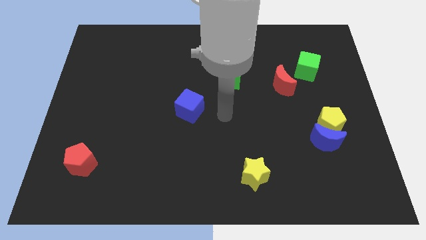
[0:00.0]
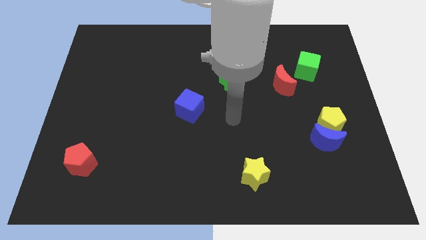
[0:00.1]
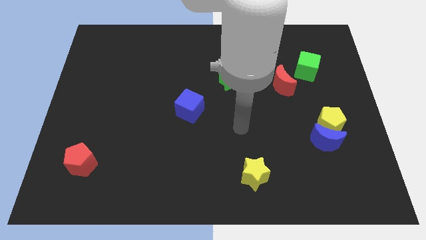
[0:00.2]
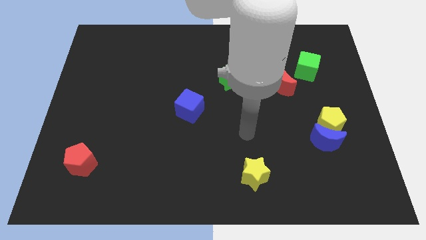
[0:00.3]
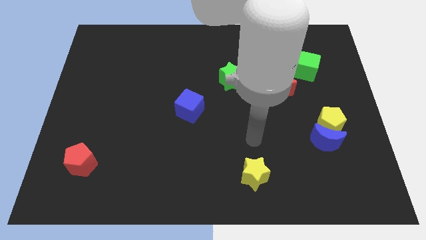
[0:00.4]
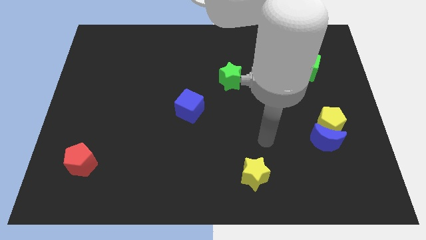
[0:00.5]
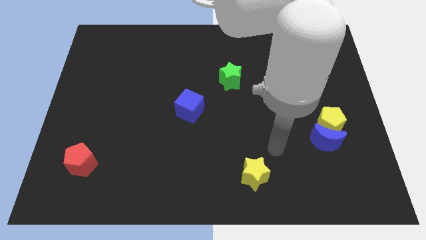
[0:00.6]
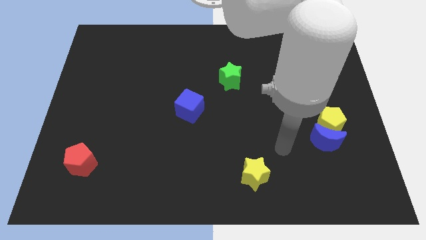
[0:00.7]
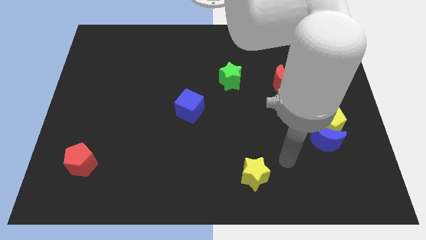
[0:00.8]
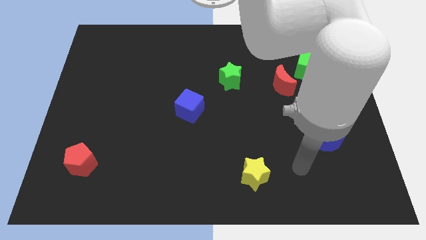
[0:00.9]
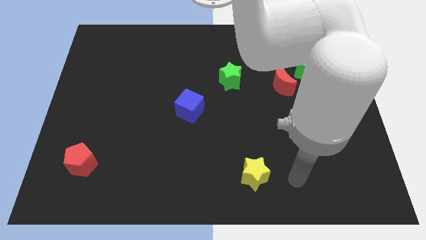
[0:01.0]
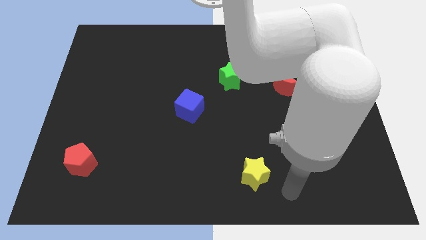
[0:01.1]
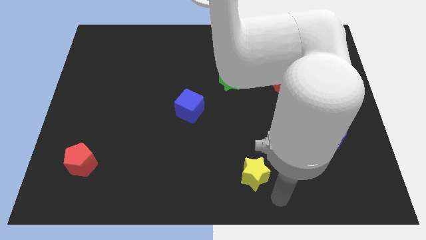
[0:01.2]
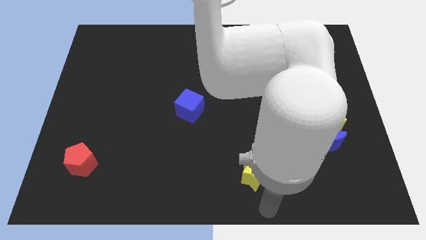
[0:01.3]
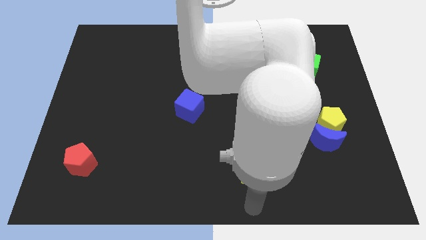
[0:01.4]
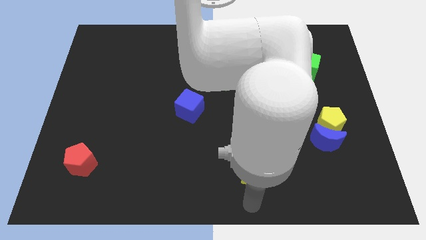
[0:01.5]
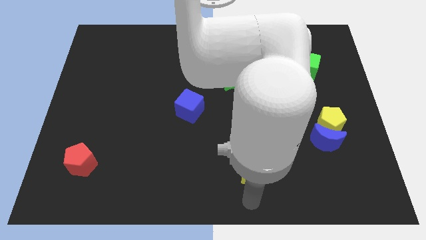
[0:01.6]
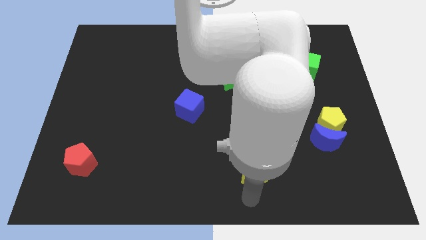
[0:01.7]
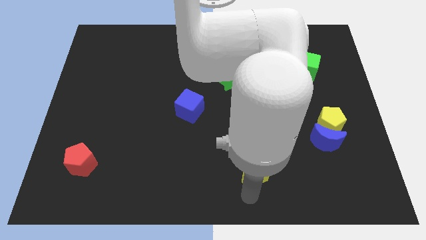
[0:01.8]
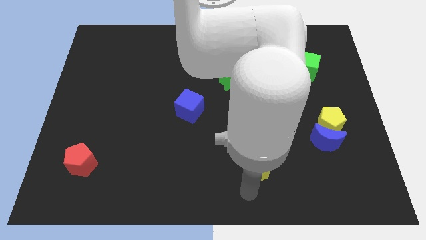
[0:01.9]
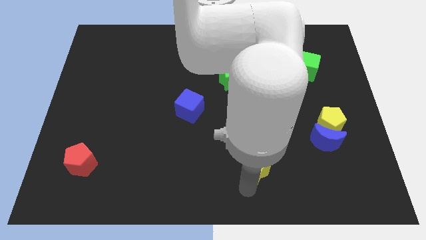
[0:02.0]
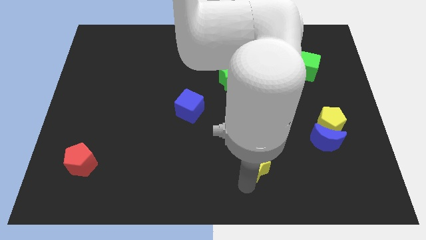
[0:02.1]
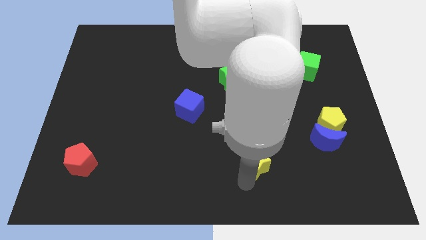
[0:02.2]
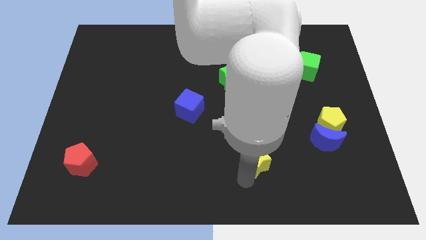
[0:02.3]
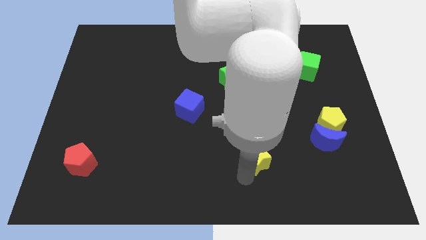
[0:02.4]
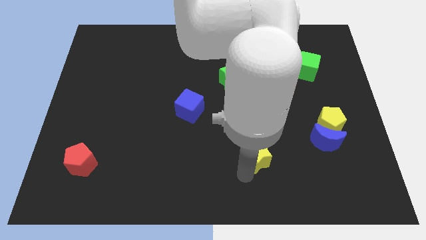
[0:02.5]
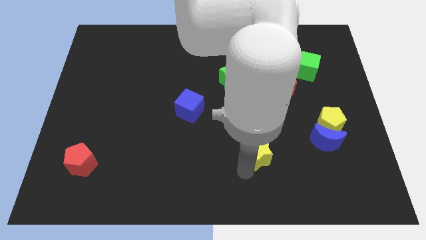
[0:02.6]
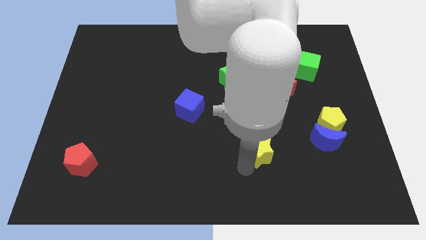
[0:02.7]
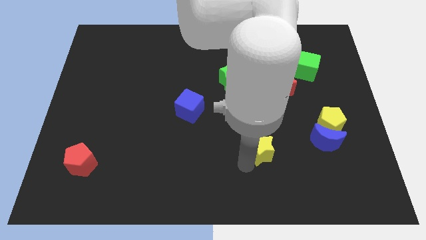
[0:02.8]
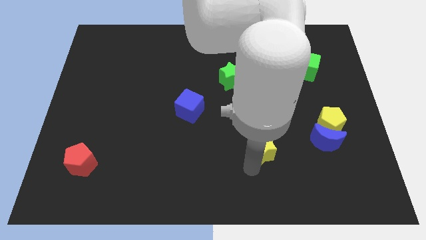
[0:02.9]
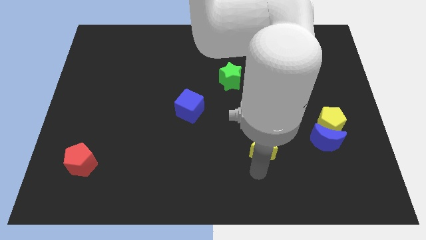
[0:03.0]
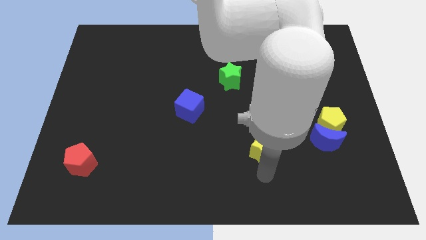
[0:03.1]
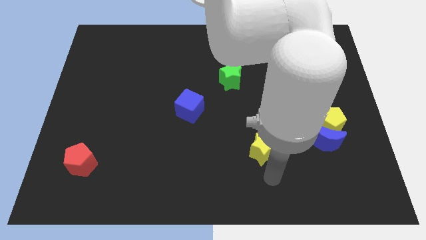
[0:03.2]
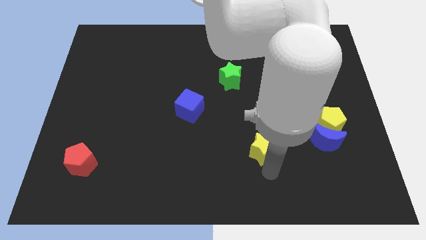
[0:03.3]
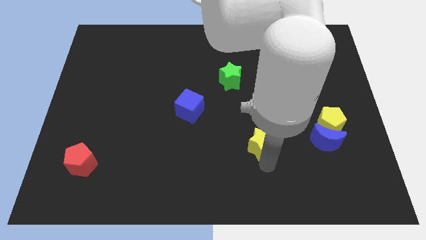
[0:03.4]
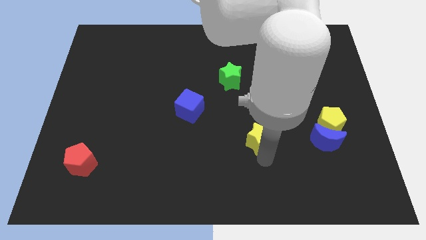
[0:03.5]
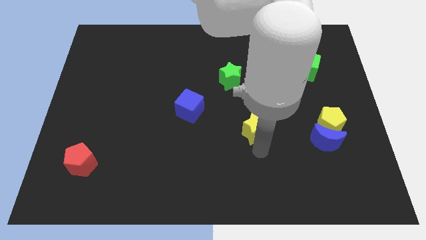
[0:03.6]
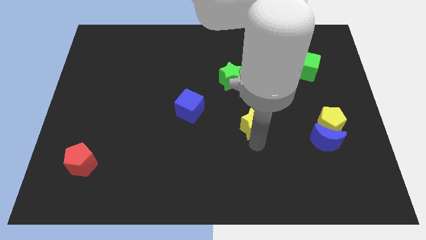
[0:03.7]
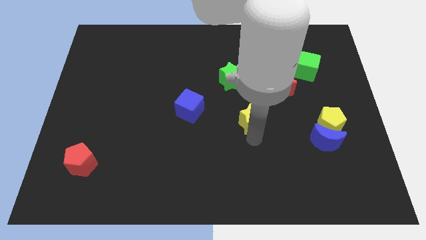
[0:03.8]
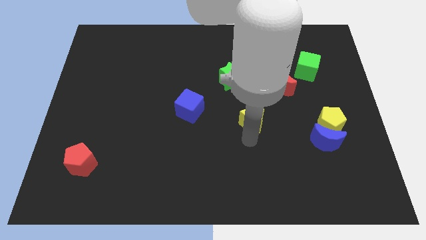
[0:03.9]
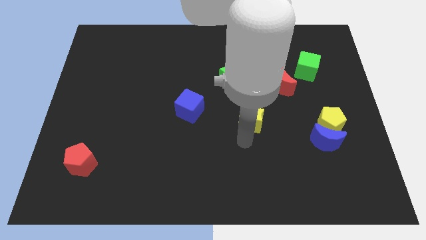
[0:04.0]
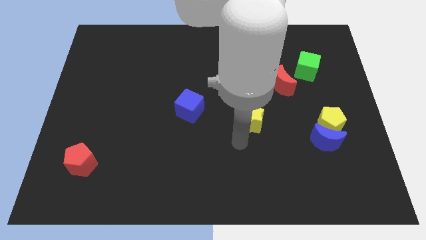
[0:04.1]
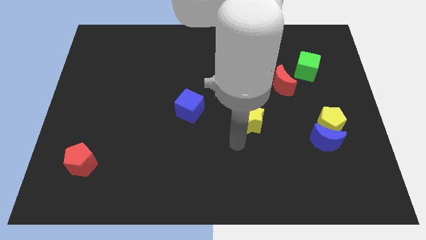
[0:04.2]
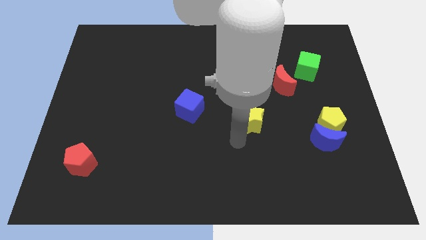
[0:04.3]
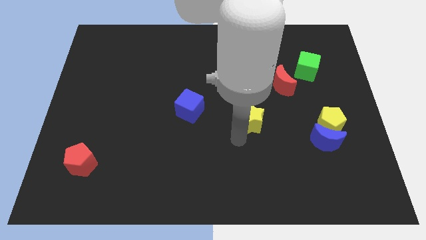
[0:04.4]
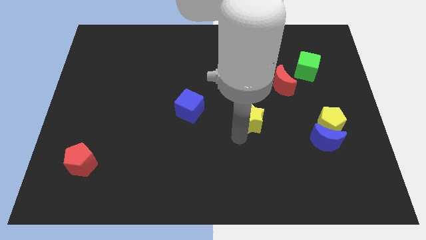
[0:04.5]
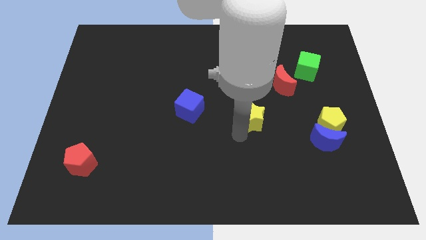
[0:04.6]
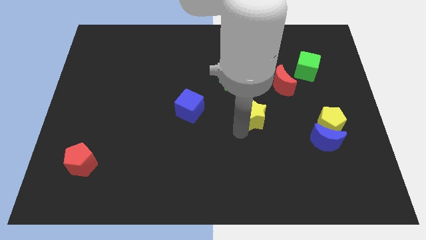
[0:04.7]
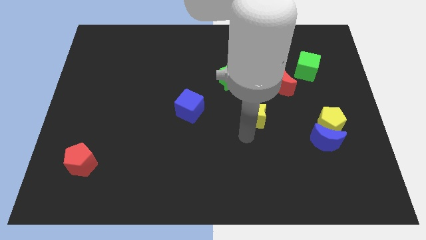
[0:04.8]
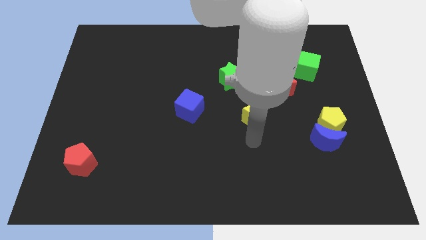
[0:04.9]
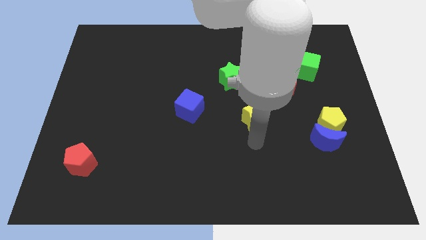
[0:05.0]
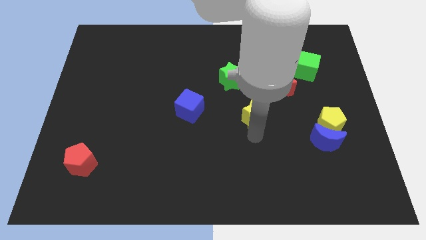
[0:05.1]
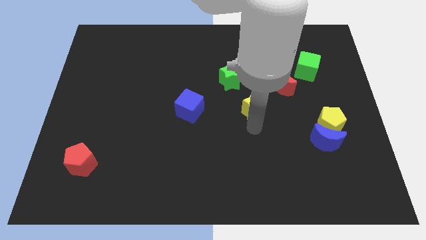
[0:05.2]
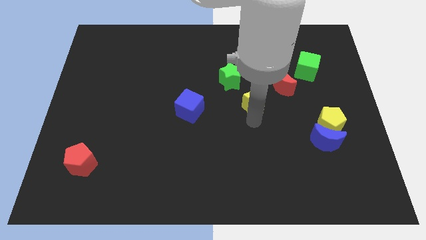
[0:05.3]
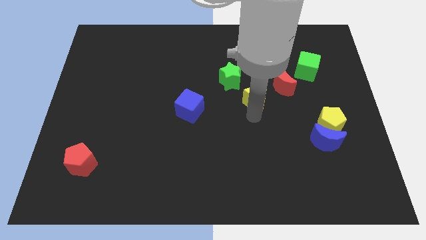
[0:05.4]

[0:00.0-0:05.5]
move the yellow star up

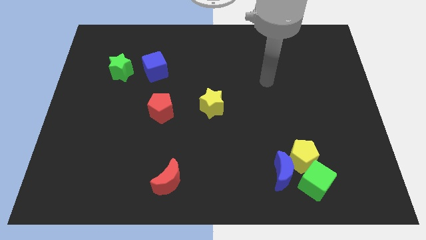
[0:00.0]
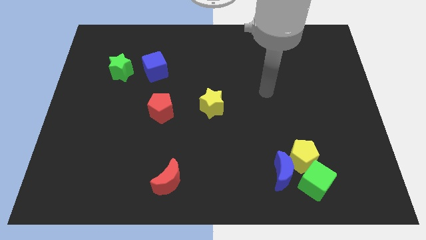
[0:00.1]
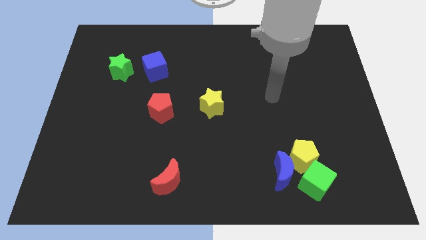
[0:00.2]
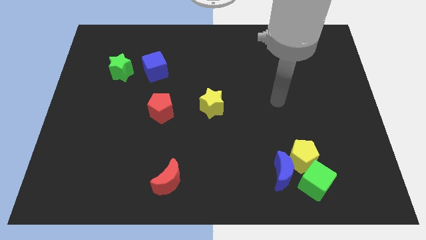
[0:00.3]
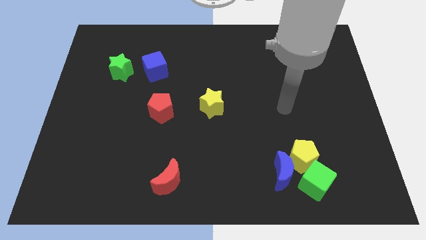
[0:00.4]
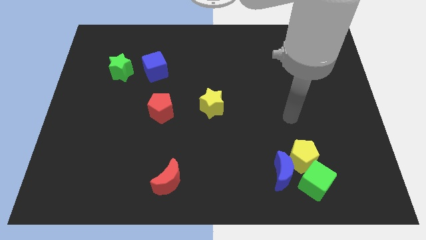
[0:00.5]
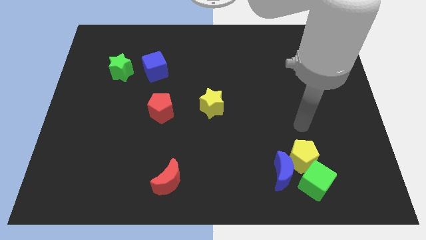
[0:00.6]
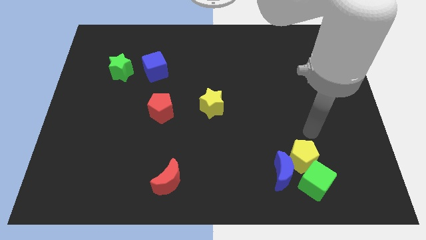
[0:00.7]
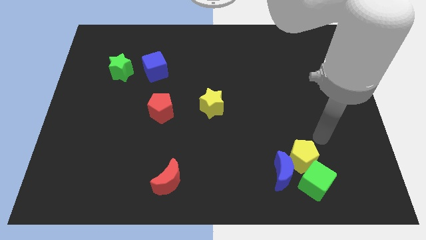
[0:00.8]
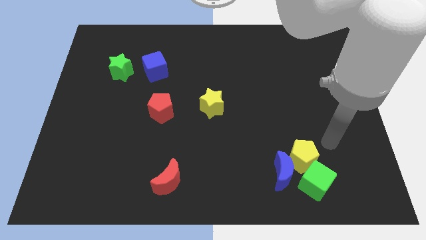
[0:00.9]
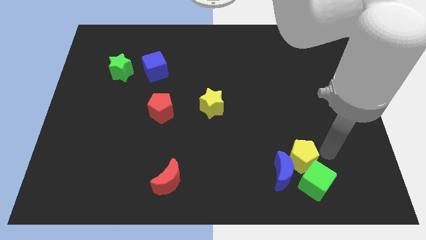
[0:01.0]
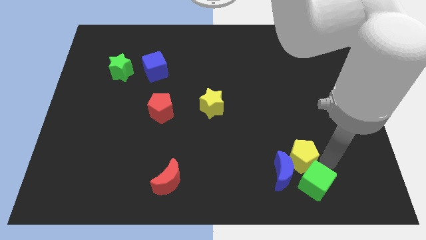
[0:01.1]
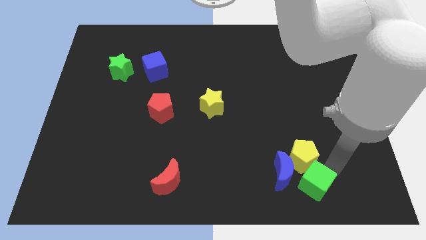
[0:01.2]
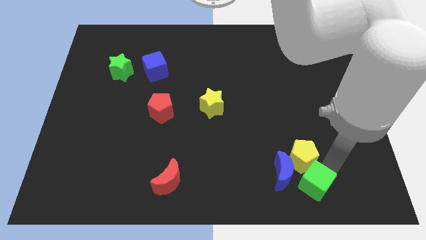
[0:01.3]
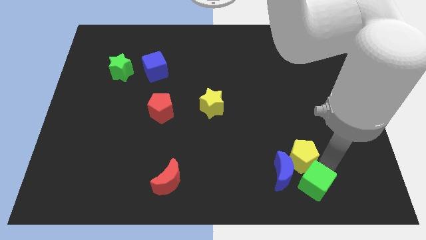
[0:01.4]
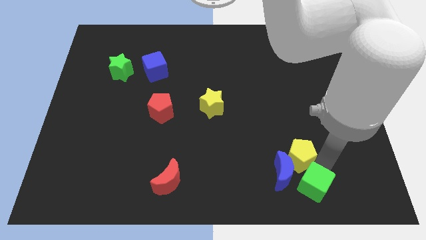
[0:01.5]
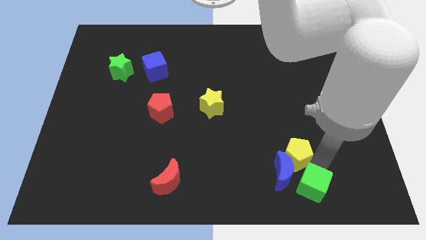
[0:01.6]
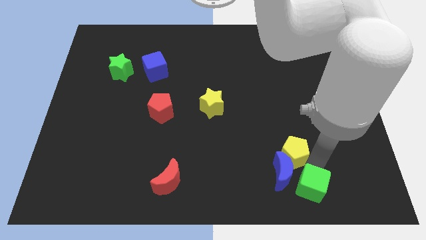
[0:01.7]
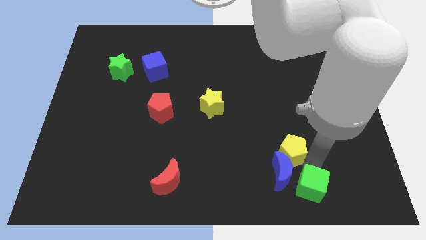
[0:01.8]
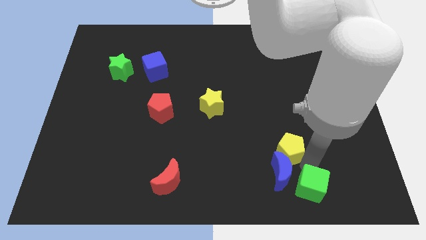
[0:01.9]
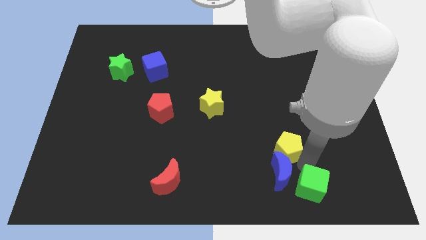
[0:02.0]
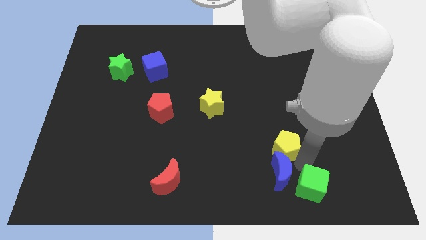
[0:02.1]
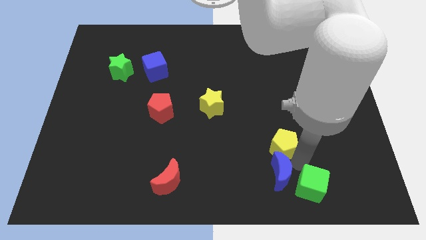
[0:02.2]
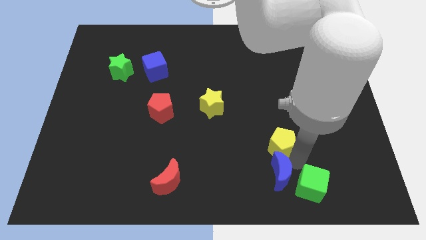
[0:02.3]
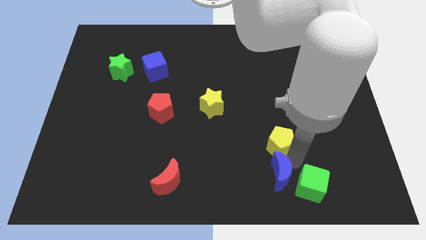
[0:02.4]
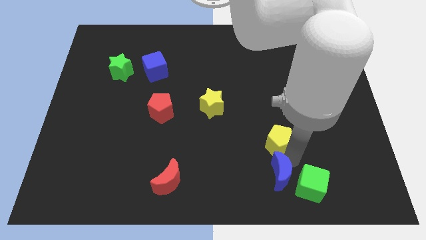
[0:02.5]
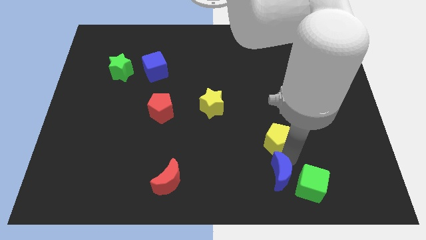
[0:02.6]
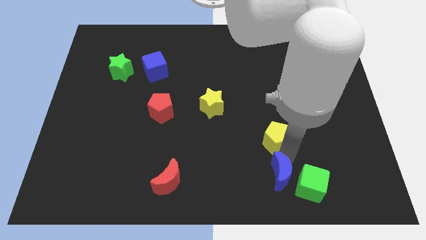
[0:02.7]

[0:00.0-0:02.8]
slide the yellow pentagon a little upwards and left
